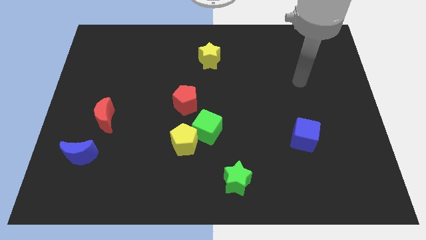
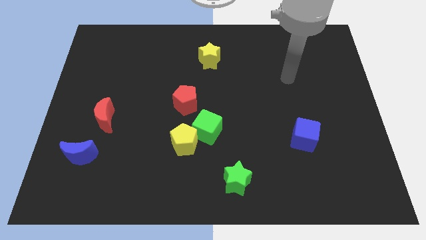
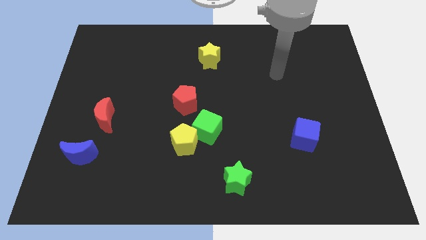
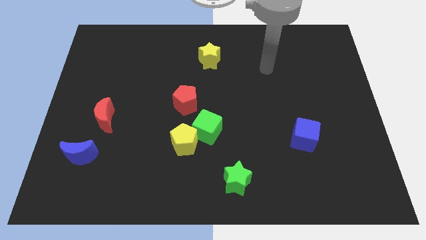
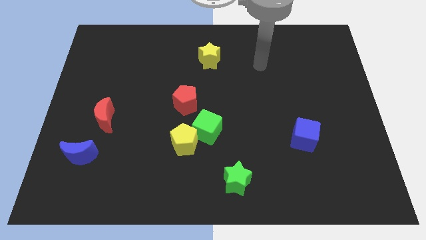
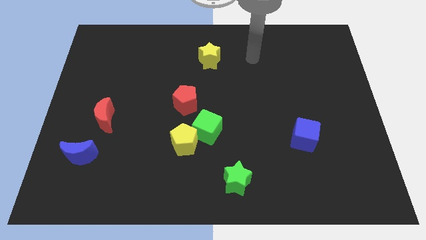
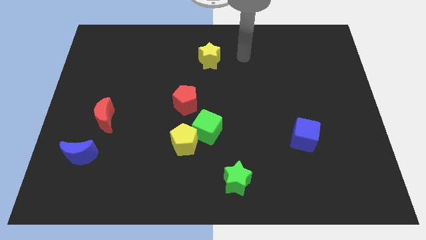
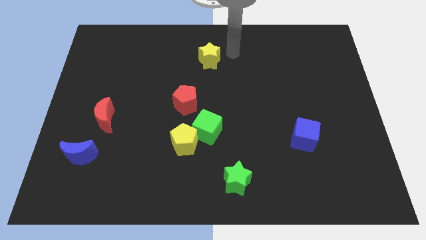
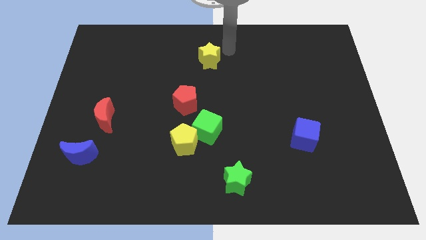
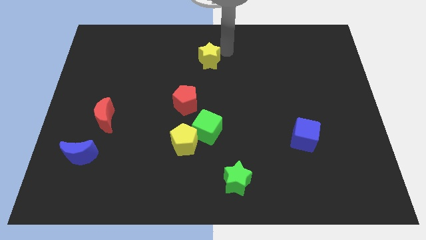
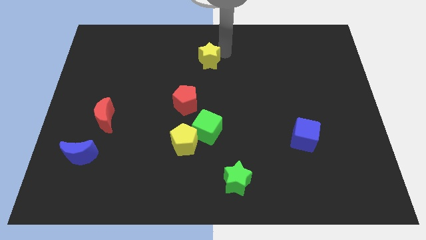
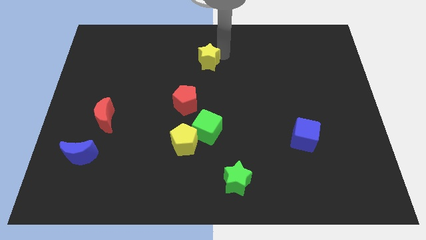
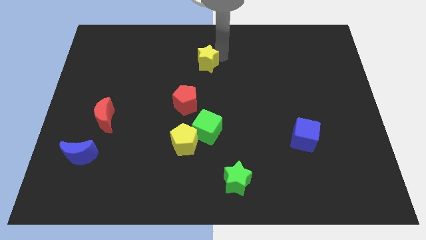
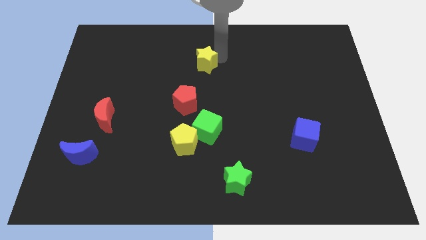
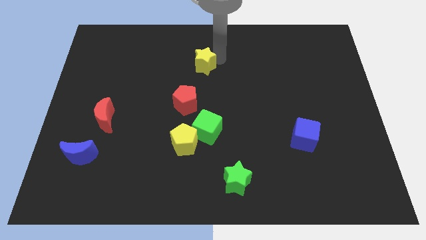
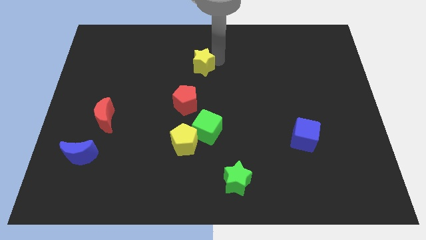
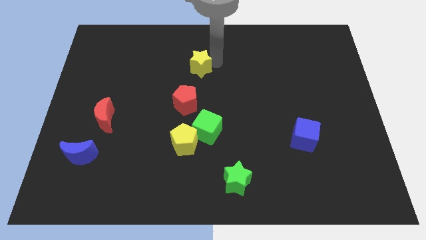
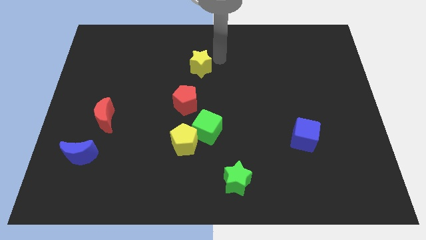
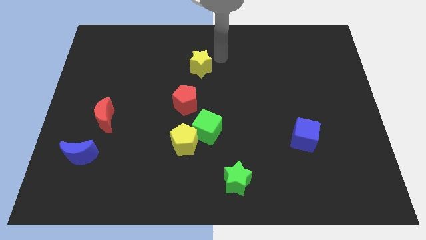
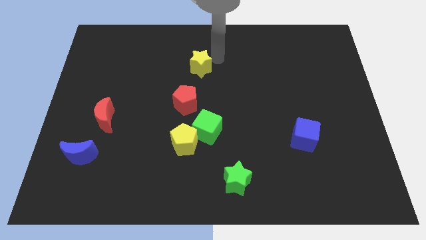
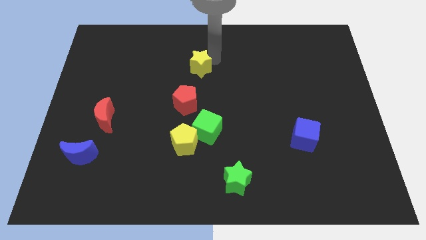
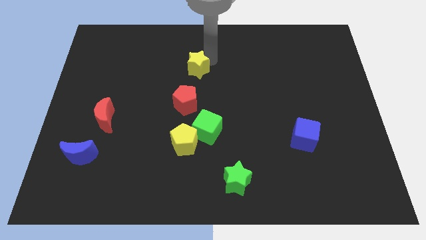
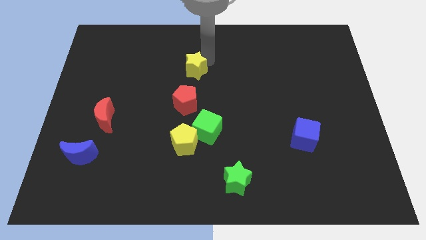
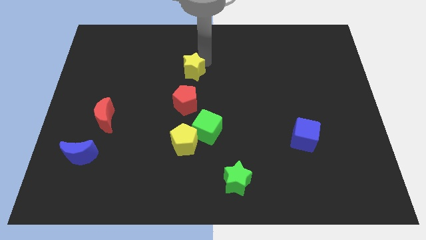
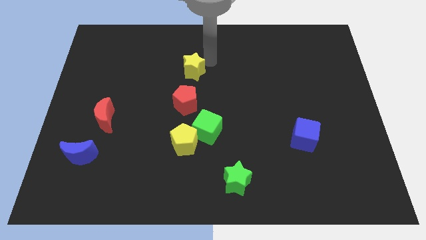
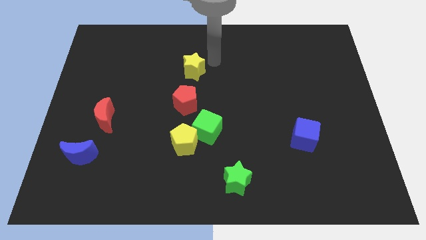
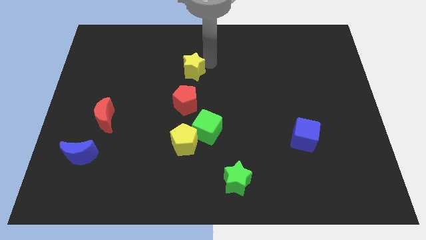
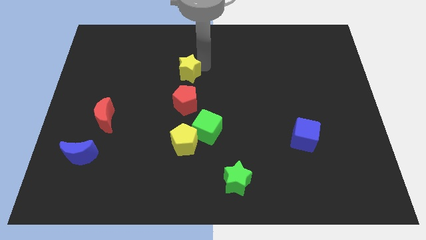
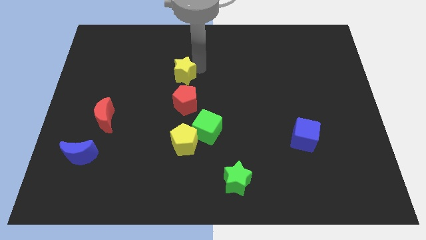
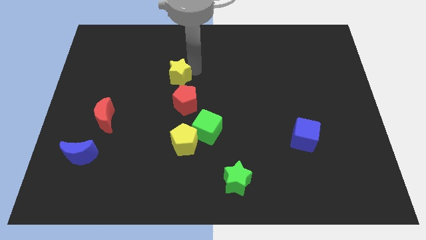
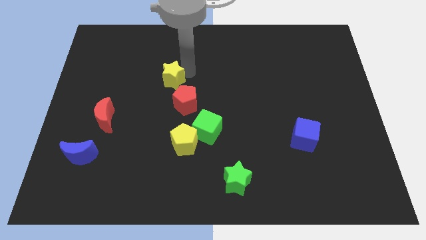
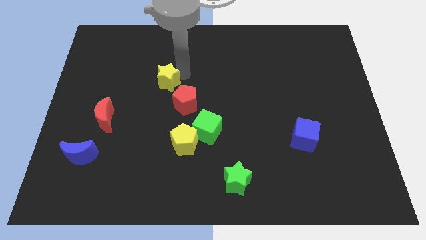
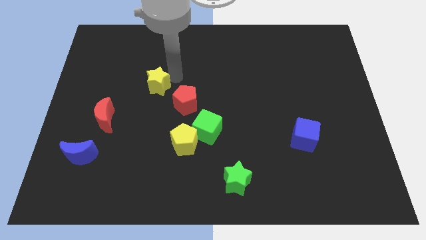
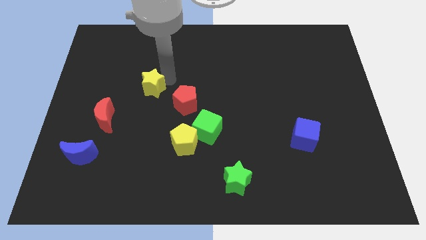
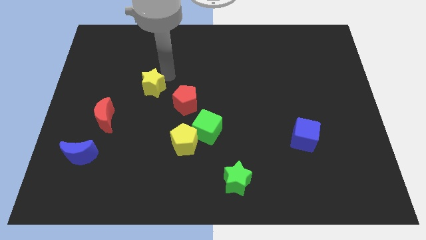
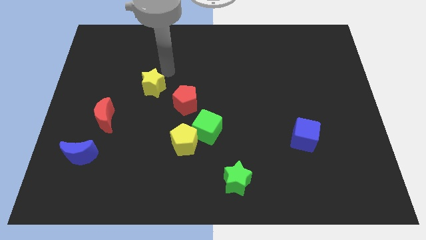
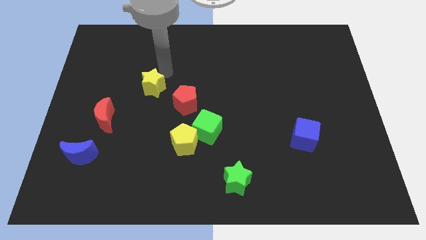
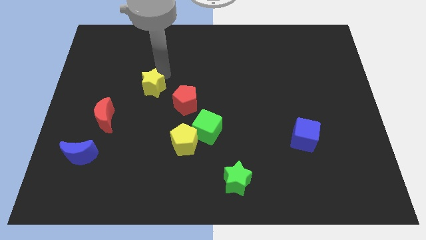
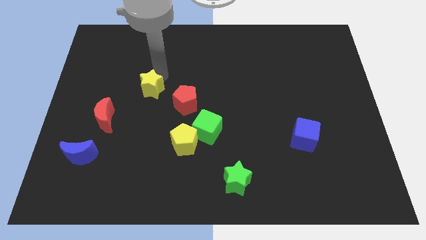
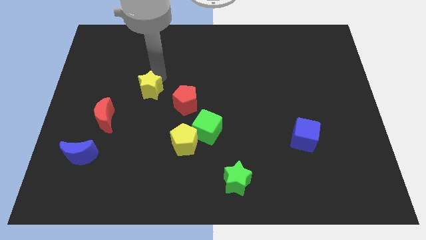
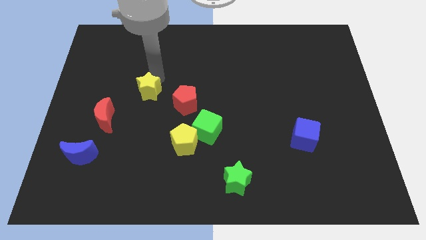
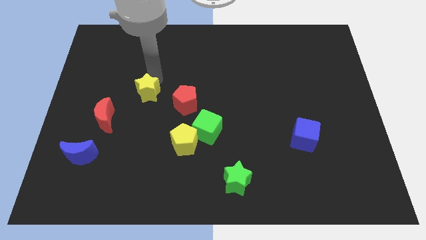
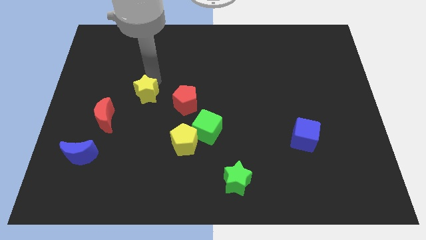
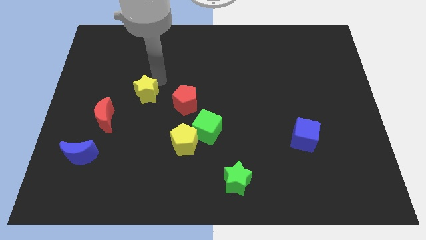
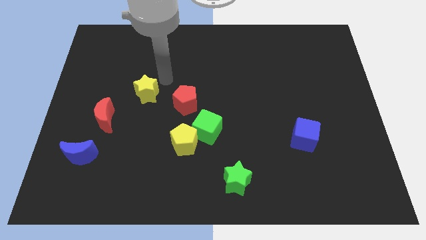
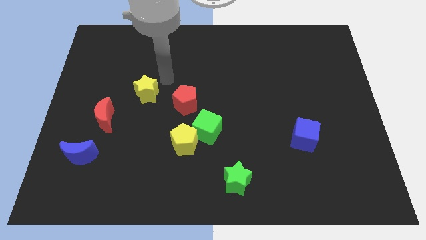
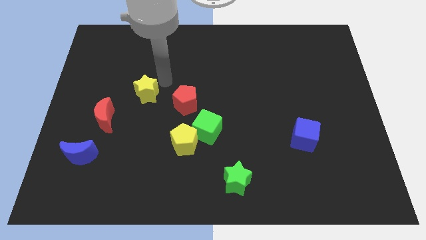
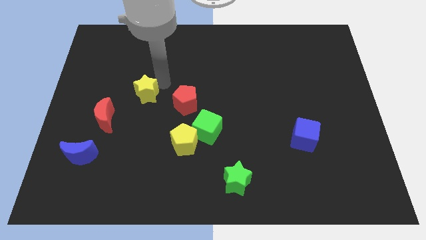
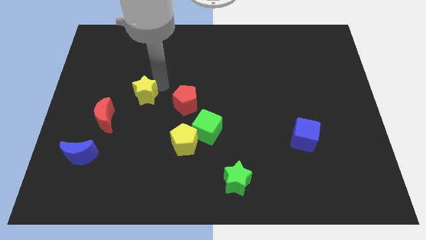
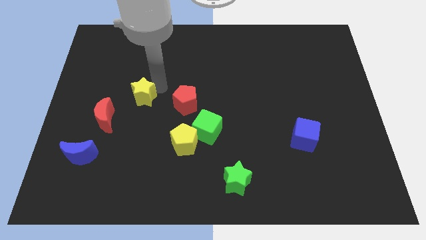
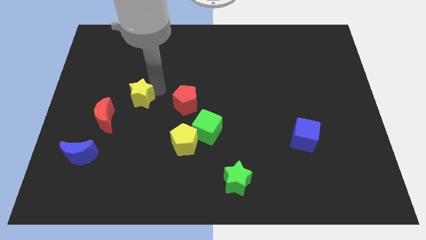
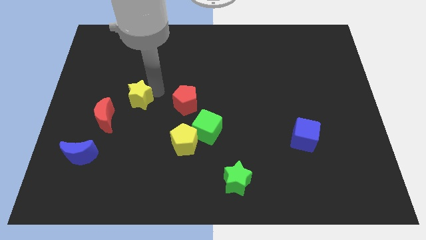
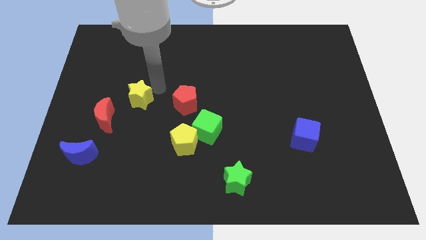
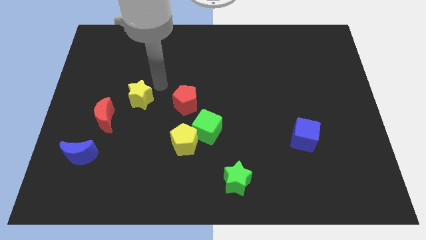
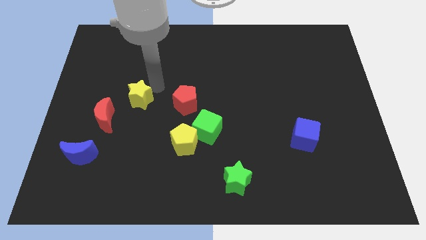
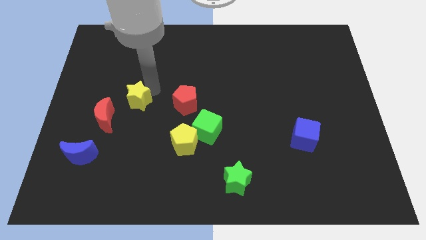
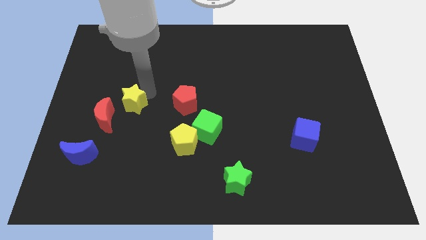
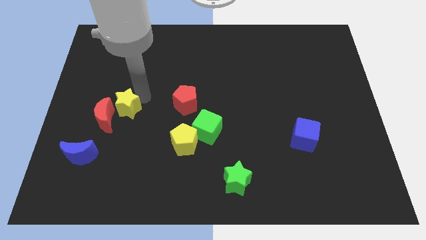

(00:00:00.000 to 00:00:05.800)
move the yellow star next to the red moon

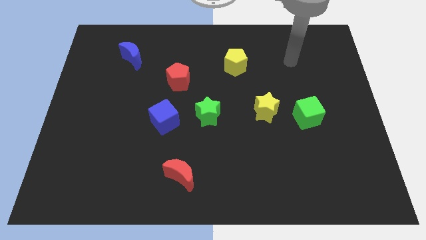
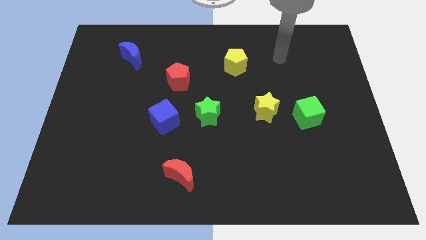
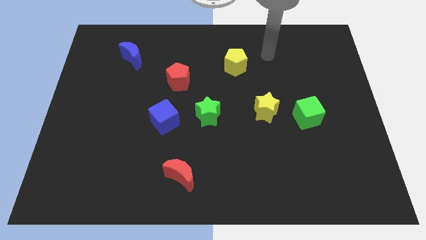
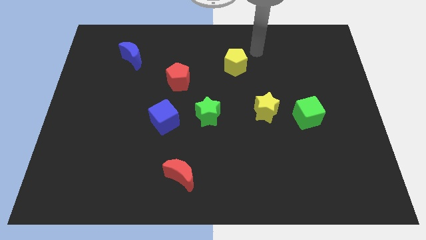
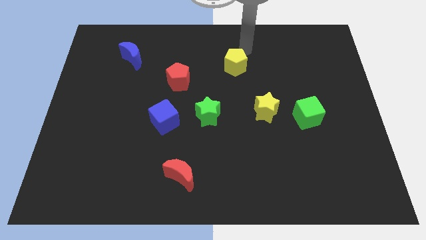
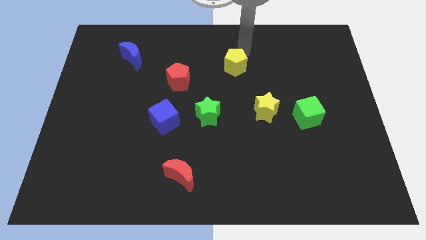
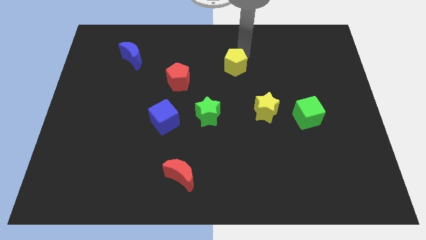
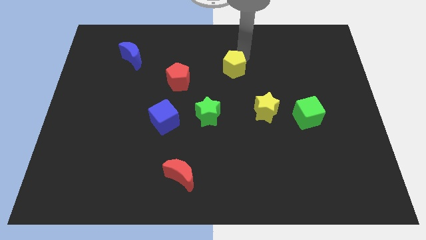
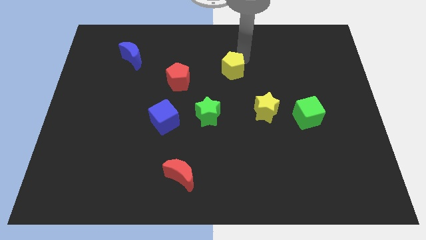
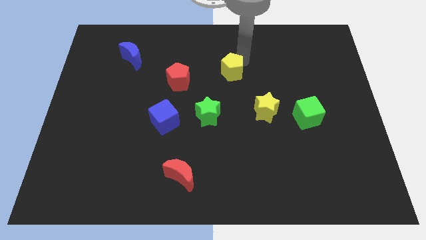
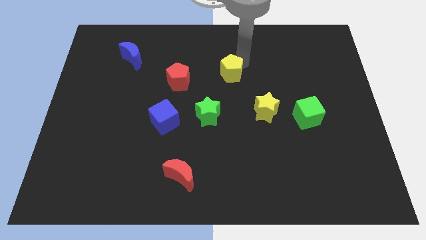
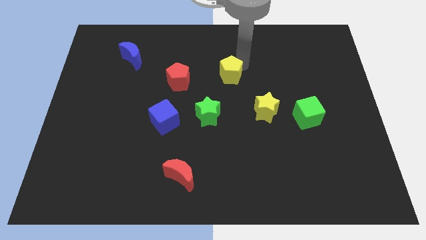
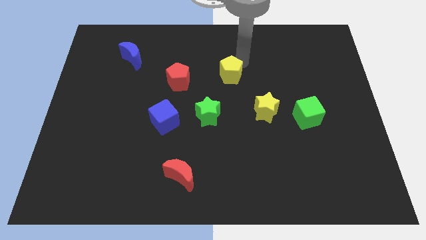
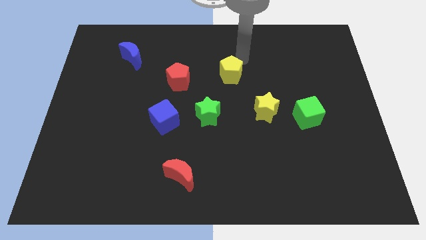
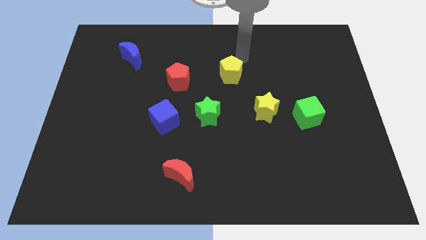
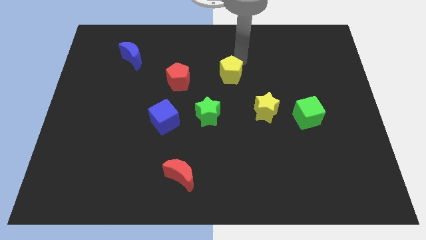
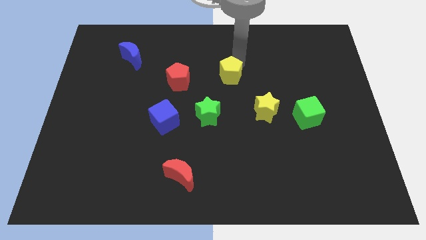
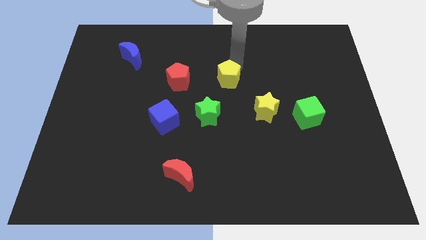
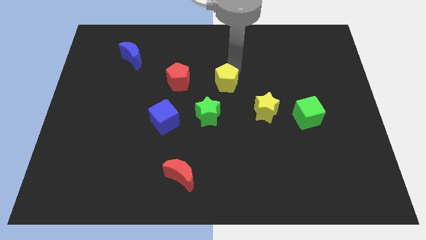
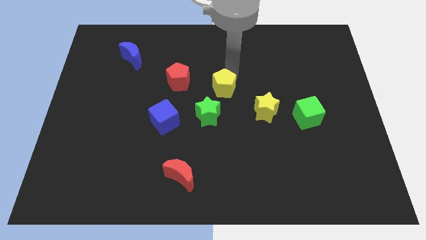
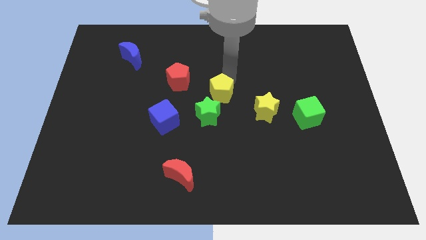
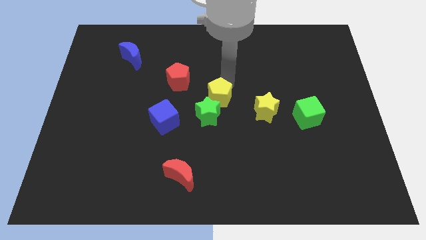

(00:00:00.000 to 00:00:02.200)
put the yellow pentagon to the green star
